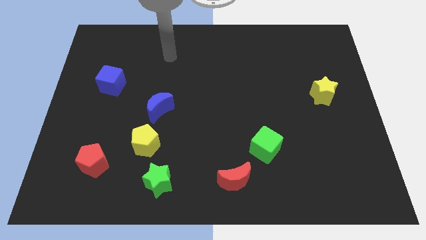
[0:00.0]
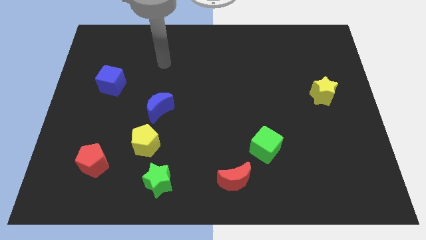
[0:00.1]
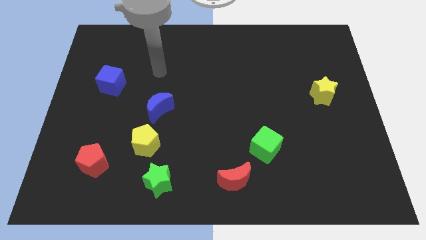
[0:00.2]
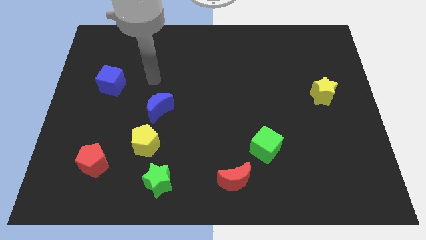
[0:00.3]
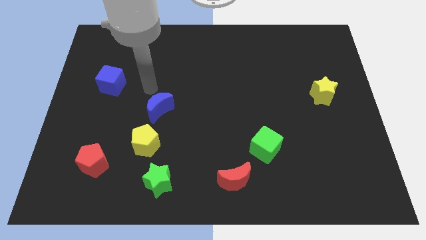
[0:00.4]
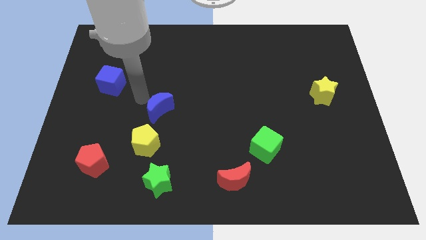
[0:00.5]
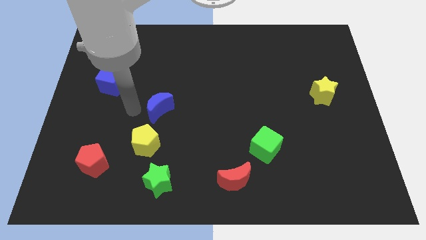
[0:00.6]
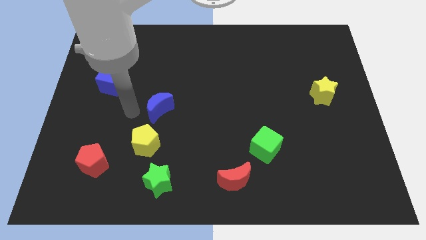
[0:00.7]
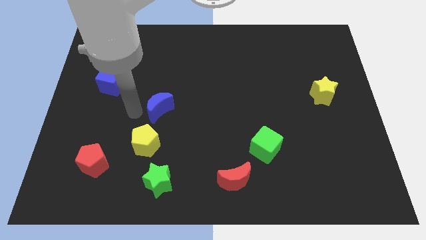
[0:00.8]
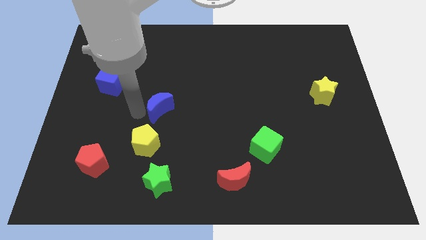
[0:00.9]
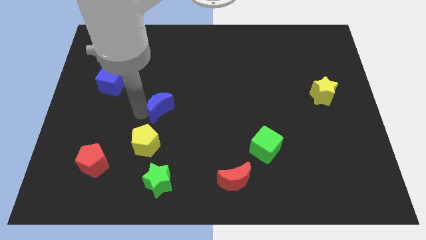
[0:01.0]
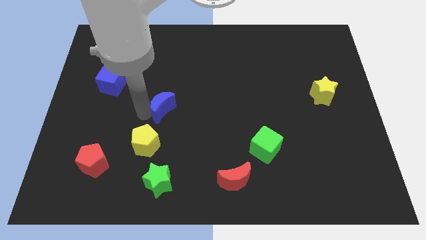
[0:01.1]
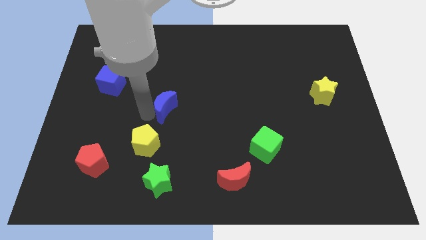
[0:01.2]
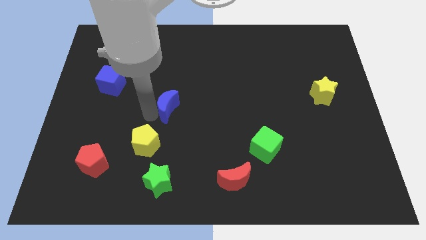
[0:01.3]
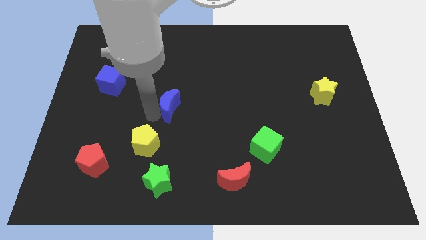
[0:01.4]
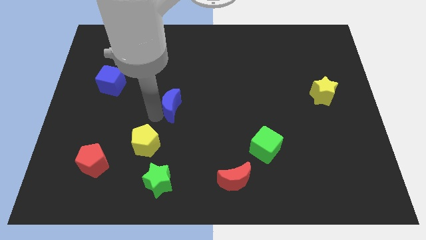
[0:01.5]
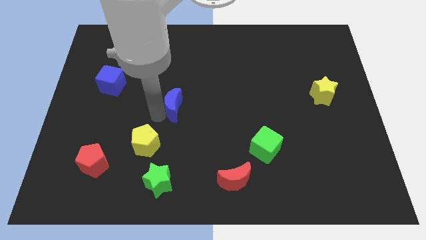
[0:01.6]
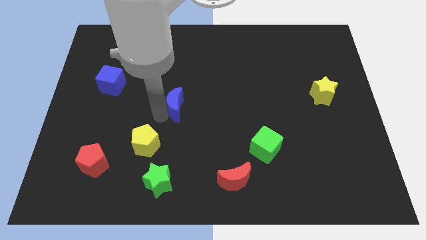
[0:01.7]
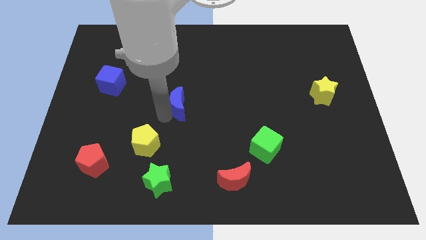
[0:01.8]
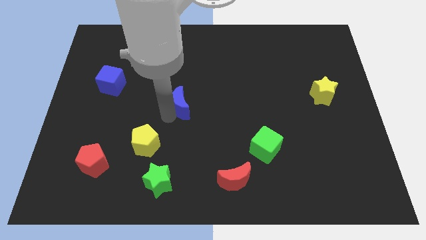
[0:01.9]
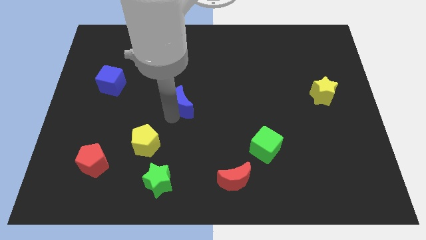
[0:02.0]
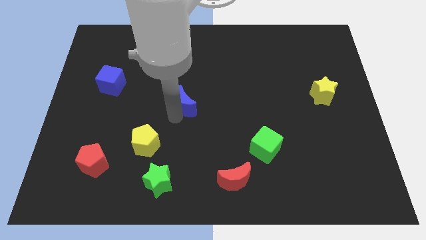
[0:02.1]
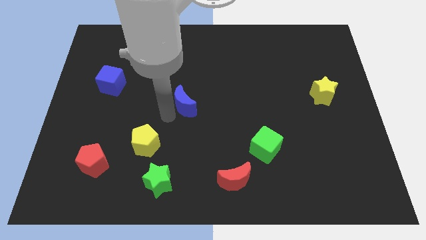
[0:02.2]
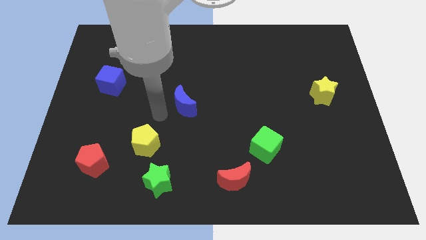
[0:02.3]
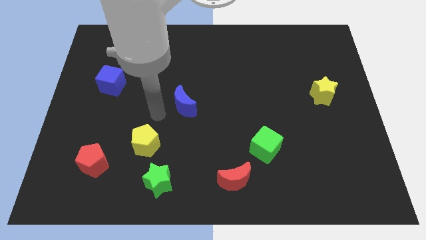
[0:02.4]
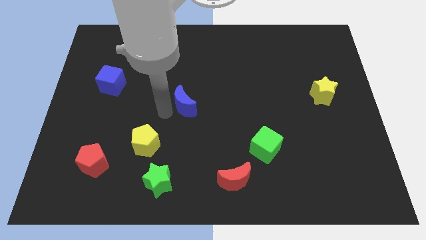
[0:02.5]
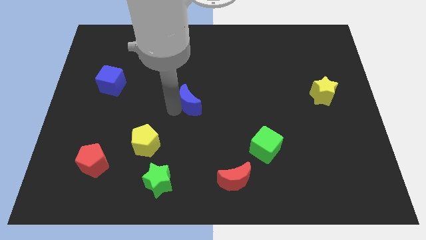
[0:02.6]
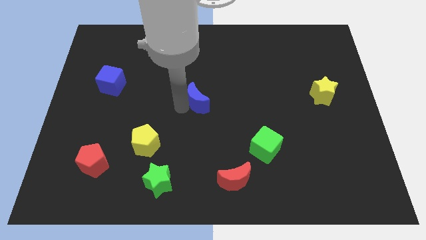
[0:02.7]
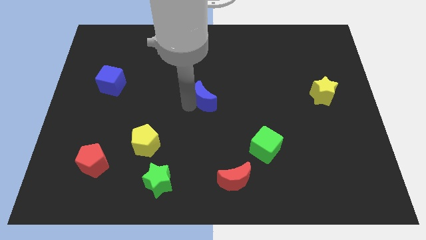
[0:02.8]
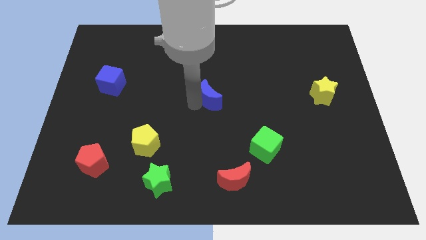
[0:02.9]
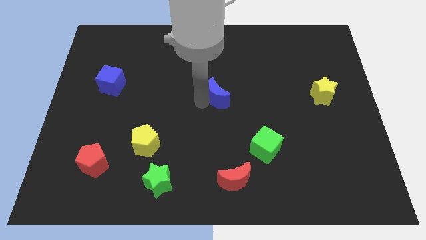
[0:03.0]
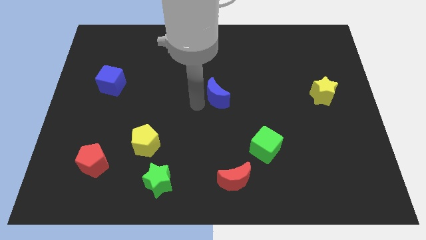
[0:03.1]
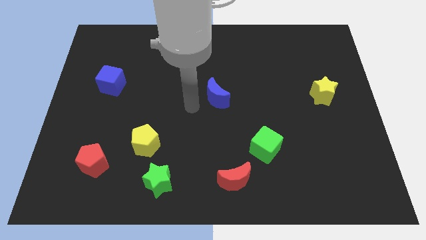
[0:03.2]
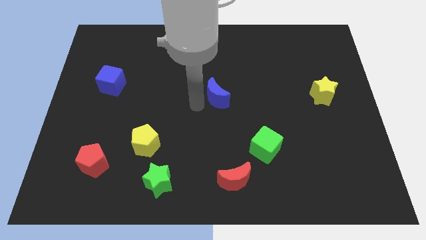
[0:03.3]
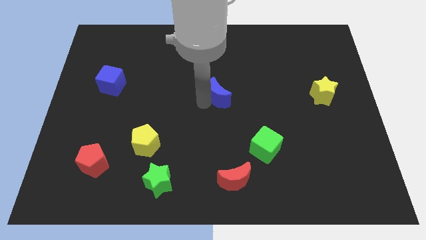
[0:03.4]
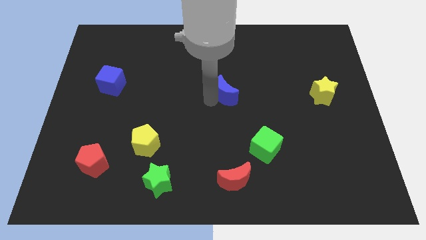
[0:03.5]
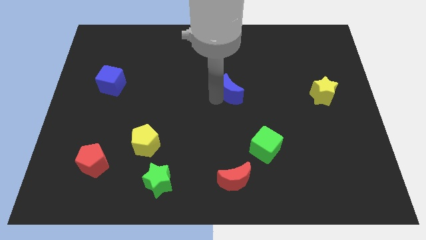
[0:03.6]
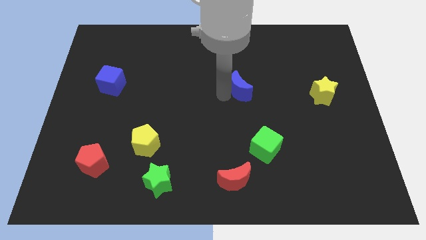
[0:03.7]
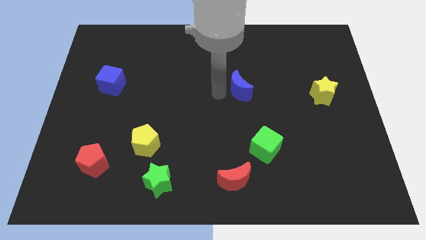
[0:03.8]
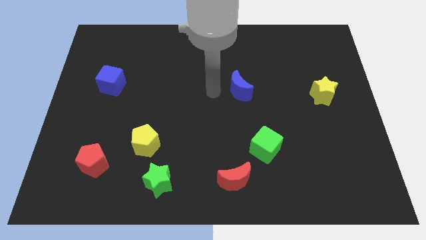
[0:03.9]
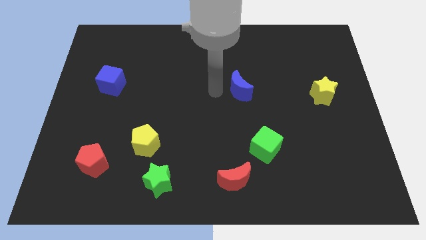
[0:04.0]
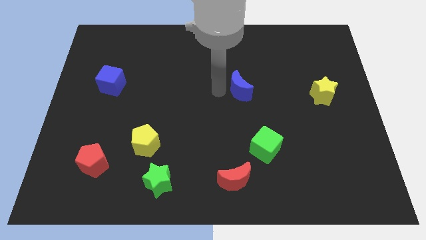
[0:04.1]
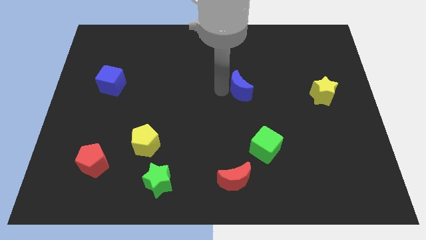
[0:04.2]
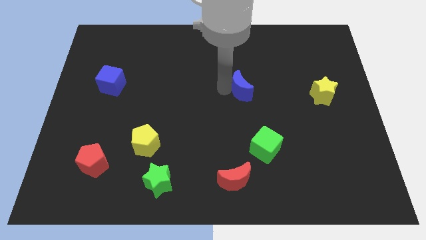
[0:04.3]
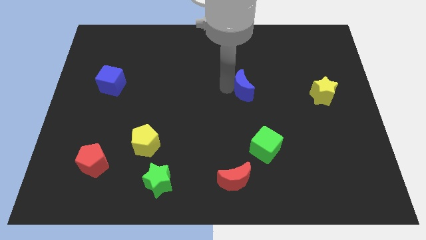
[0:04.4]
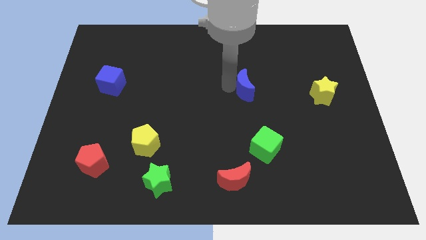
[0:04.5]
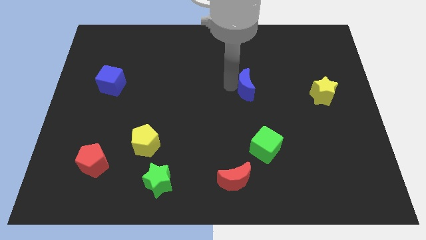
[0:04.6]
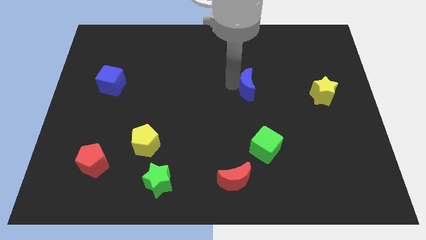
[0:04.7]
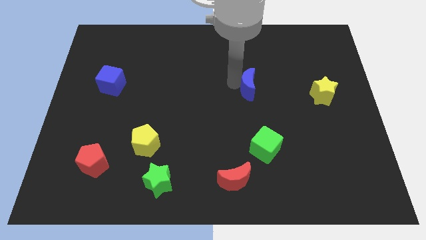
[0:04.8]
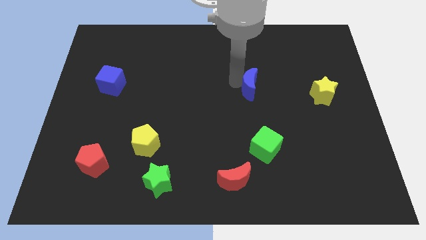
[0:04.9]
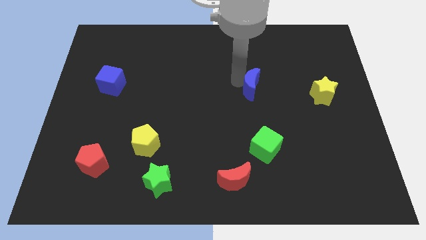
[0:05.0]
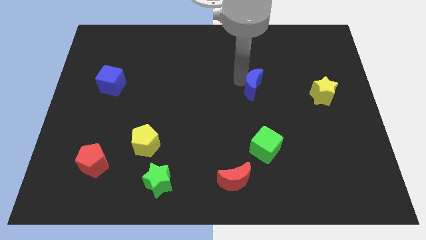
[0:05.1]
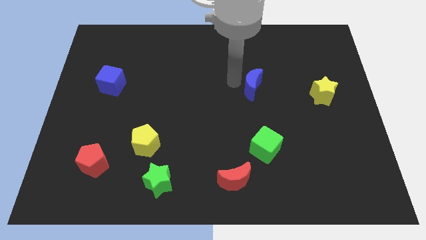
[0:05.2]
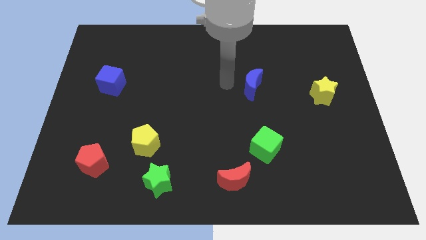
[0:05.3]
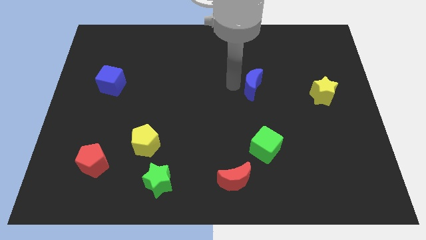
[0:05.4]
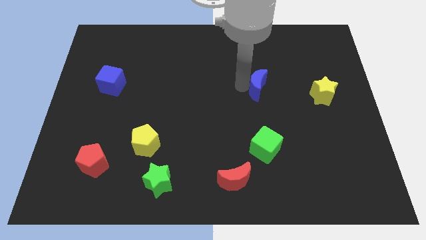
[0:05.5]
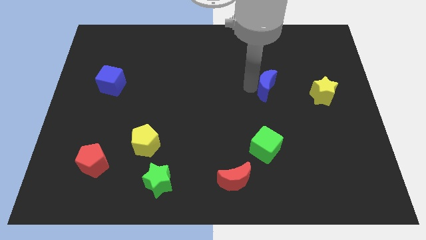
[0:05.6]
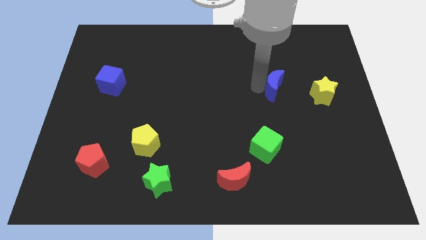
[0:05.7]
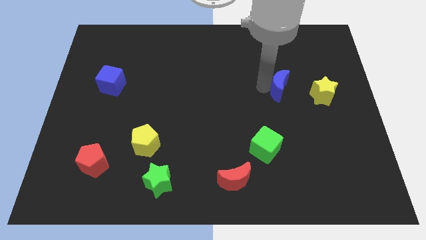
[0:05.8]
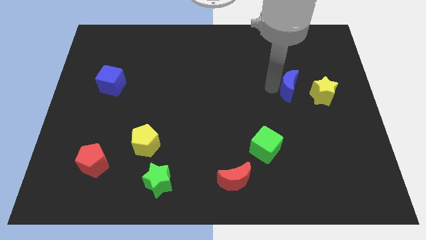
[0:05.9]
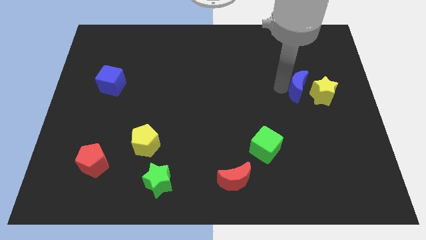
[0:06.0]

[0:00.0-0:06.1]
push the blue moon next to the yellow star

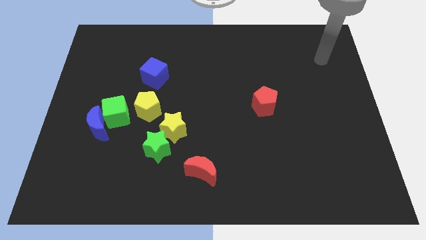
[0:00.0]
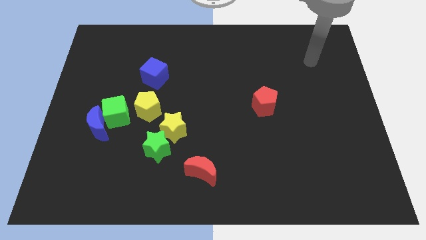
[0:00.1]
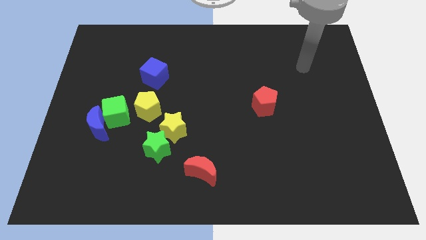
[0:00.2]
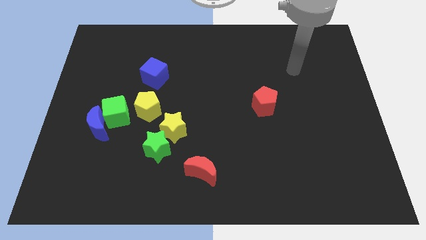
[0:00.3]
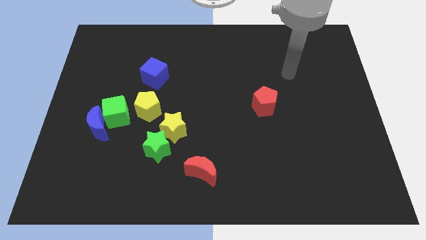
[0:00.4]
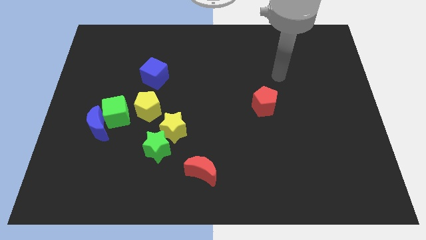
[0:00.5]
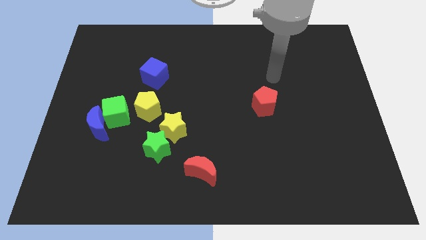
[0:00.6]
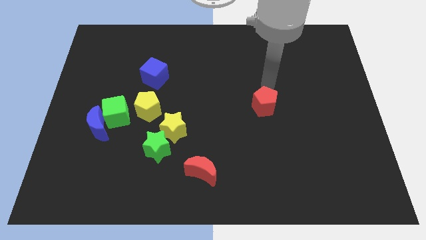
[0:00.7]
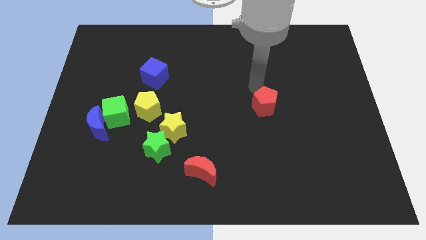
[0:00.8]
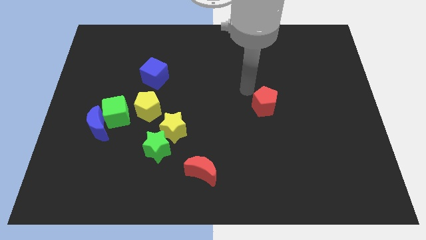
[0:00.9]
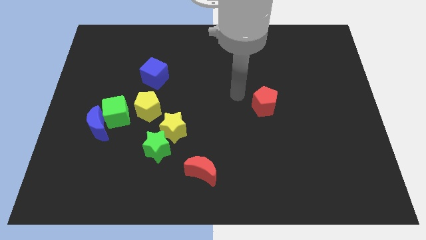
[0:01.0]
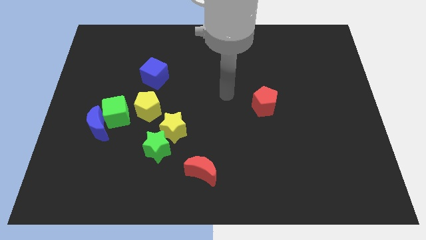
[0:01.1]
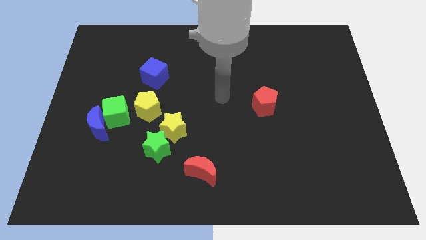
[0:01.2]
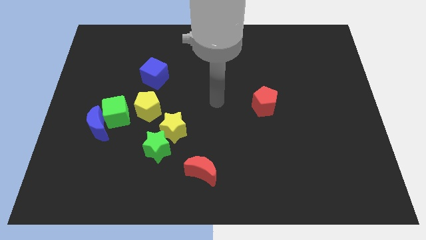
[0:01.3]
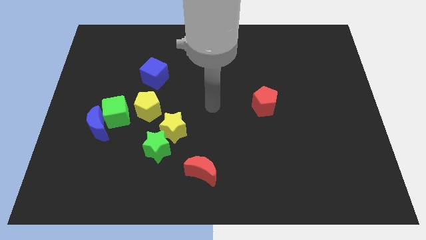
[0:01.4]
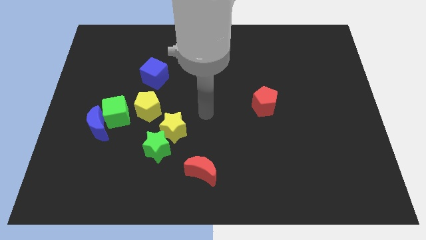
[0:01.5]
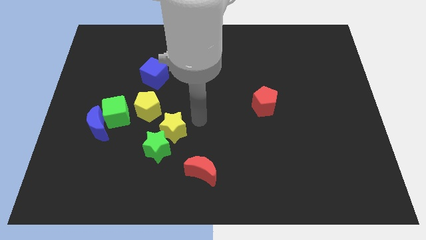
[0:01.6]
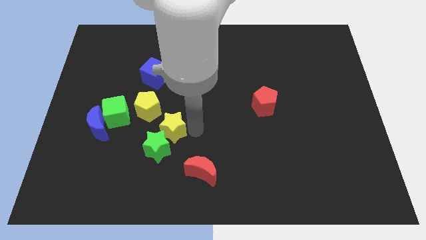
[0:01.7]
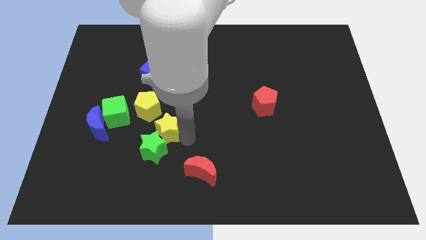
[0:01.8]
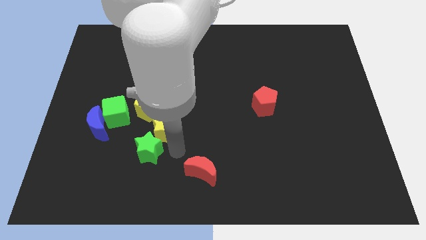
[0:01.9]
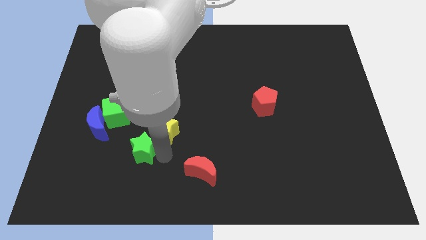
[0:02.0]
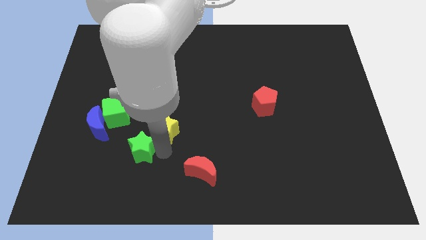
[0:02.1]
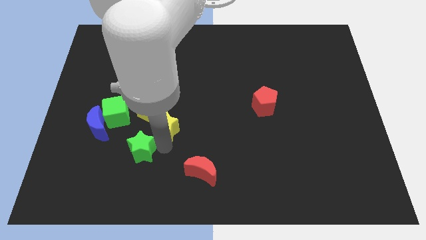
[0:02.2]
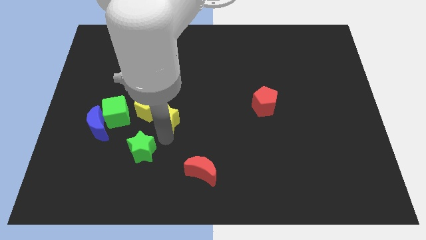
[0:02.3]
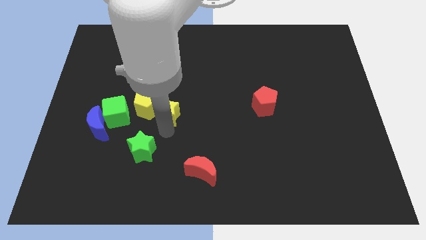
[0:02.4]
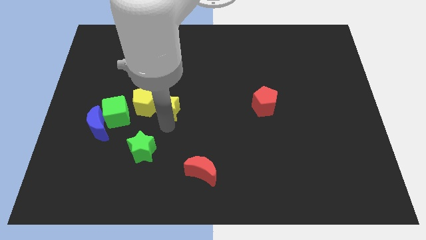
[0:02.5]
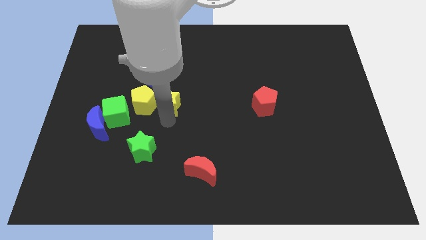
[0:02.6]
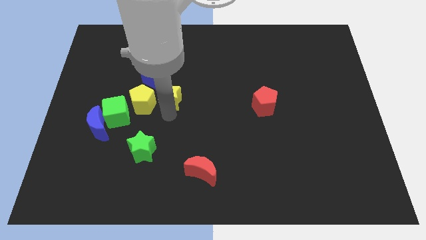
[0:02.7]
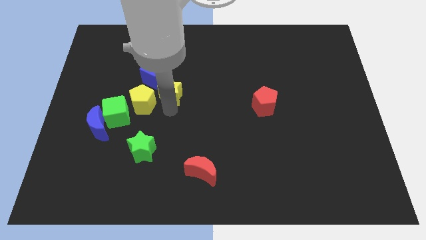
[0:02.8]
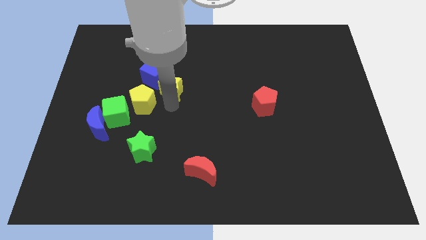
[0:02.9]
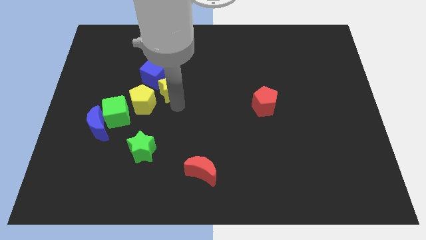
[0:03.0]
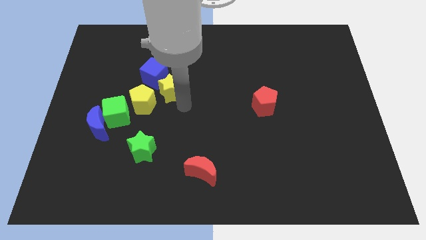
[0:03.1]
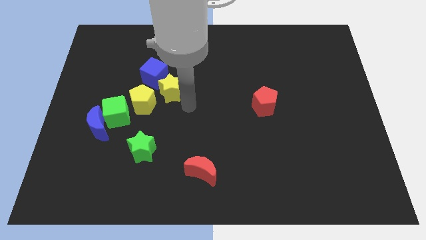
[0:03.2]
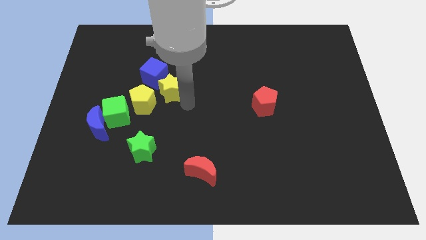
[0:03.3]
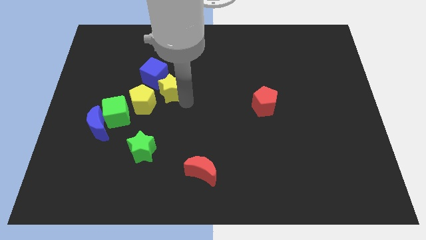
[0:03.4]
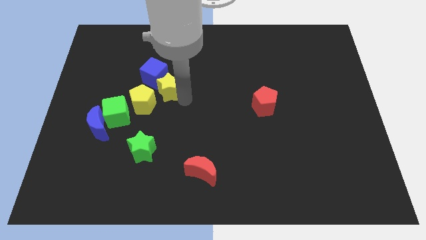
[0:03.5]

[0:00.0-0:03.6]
push the yellow star to the blue cube
